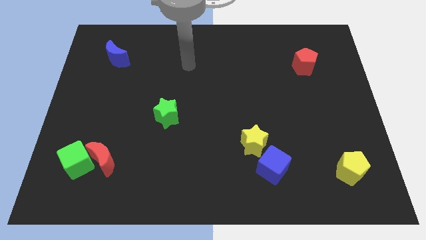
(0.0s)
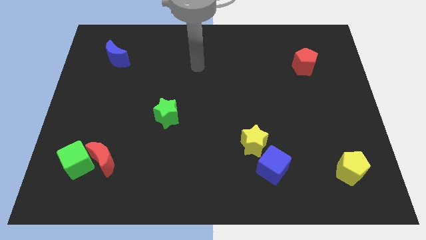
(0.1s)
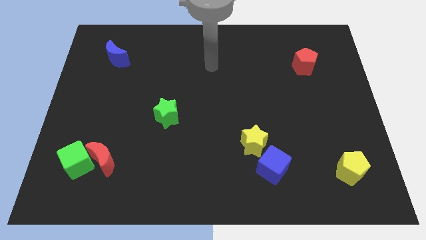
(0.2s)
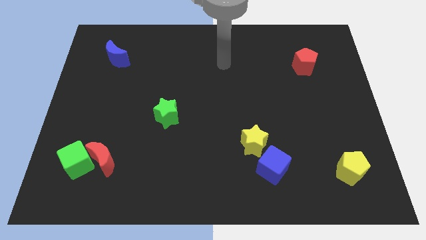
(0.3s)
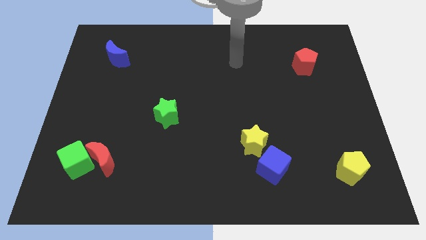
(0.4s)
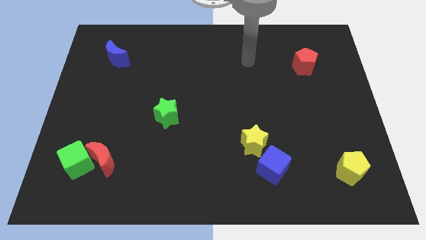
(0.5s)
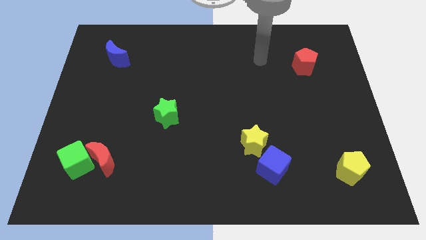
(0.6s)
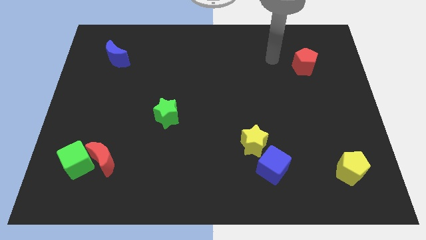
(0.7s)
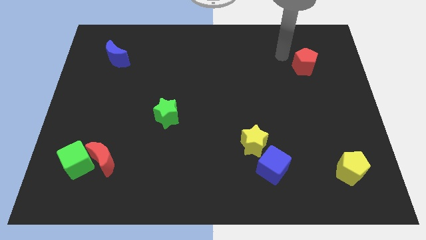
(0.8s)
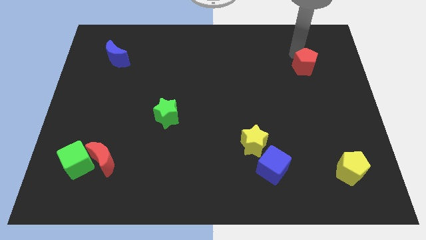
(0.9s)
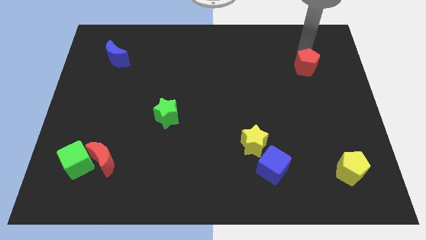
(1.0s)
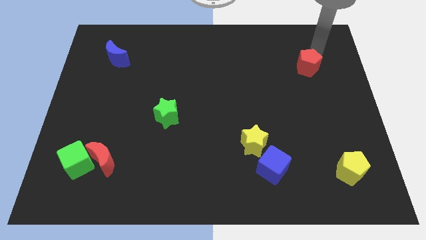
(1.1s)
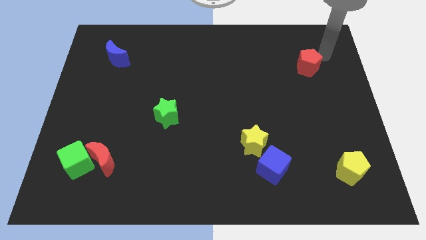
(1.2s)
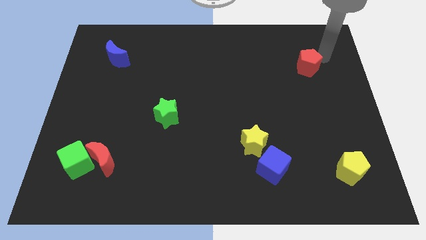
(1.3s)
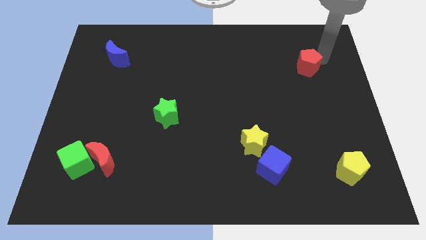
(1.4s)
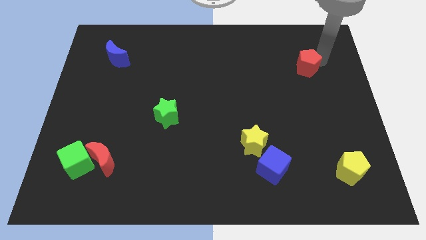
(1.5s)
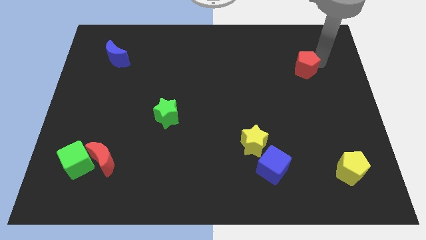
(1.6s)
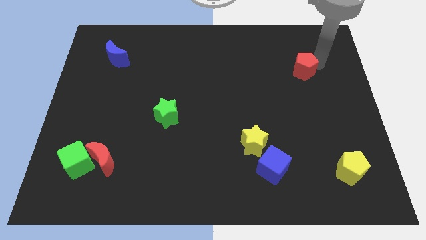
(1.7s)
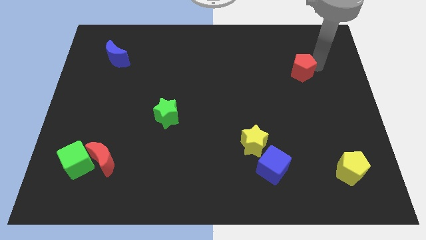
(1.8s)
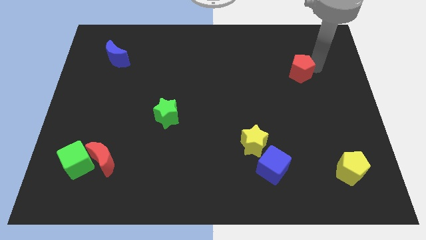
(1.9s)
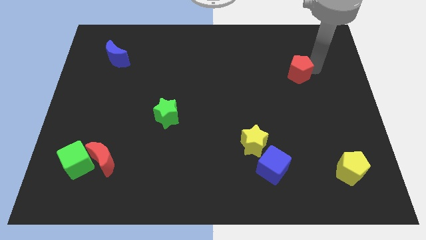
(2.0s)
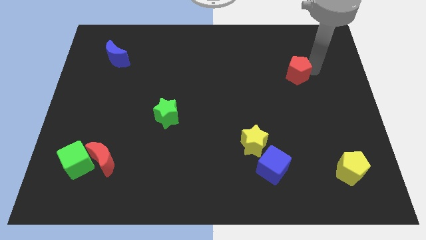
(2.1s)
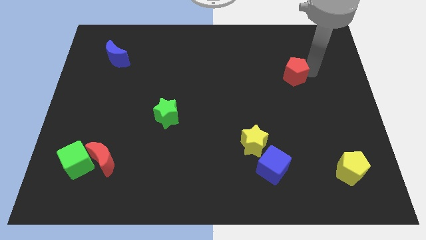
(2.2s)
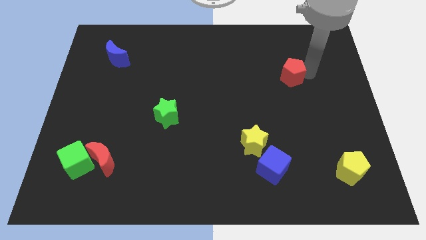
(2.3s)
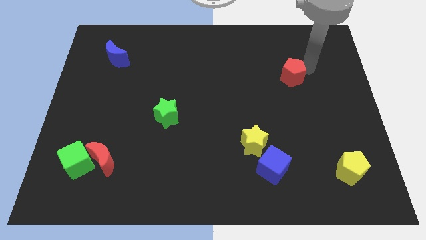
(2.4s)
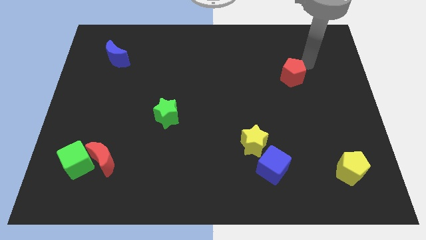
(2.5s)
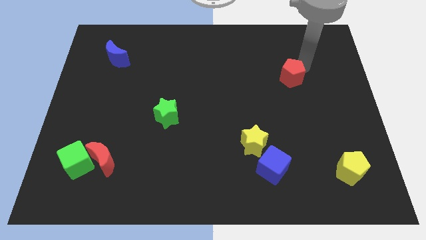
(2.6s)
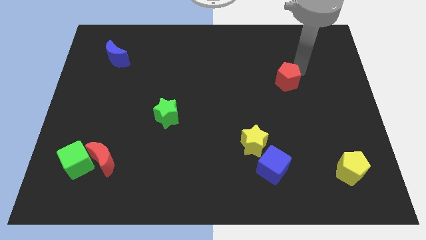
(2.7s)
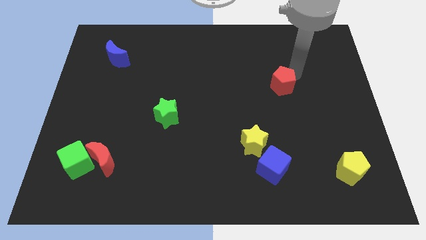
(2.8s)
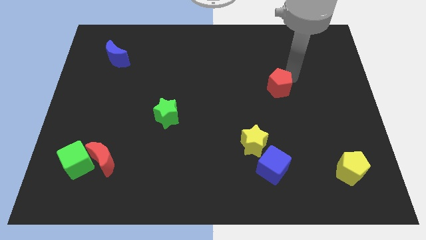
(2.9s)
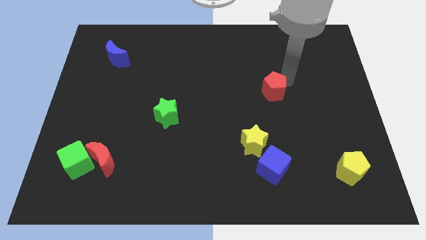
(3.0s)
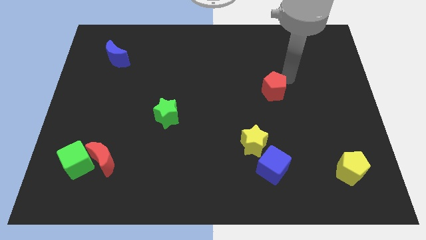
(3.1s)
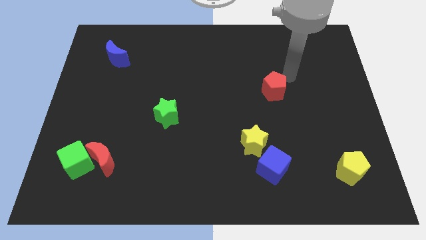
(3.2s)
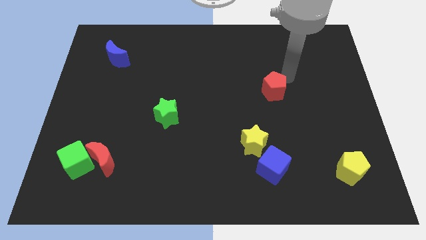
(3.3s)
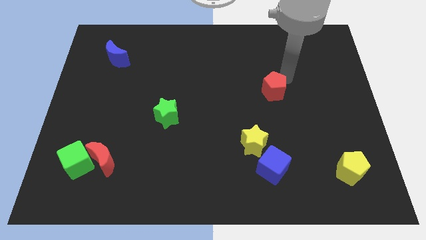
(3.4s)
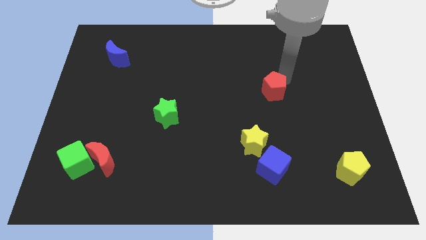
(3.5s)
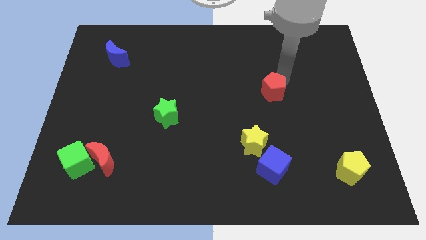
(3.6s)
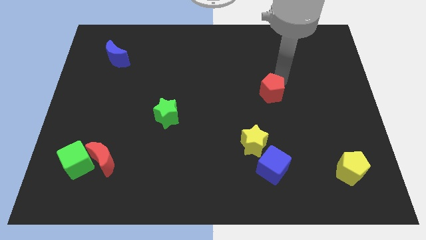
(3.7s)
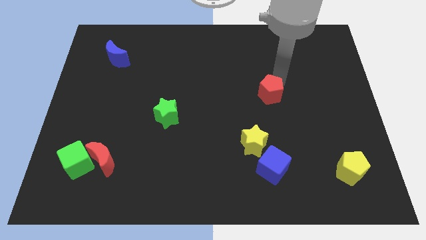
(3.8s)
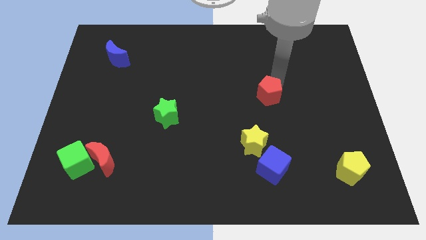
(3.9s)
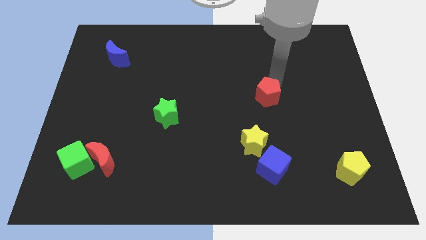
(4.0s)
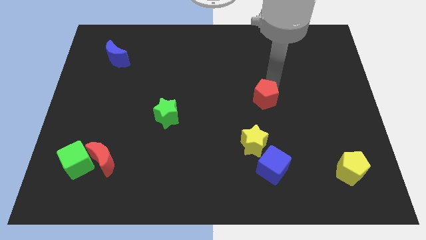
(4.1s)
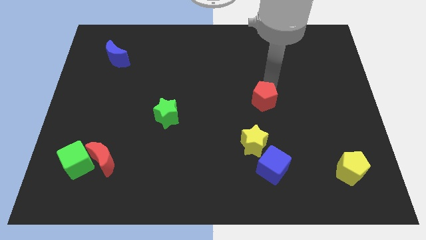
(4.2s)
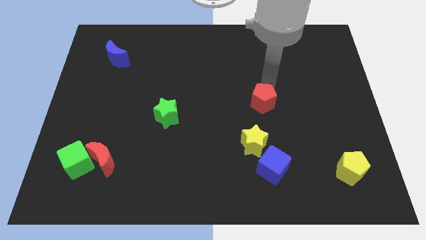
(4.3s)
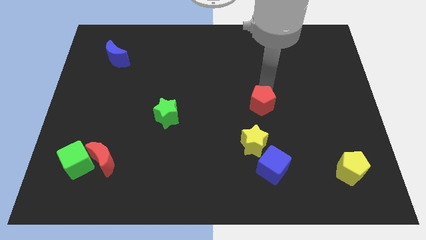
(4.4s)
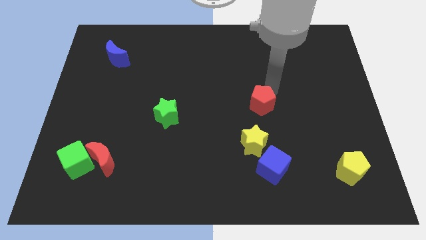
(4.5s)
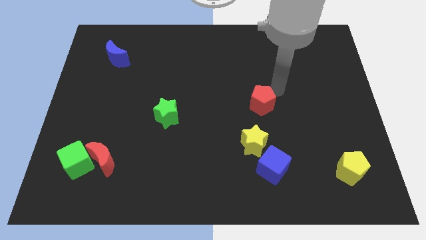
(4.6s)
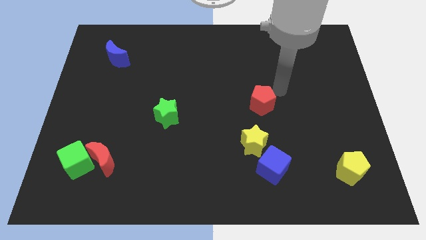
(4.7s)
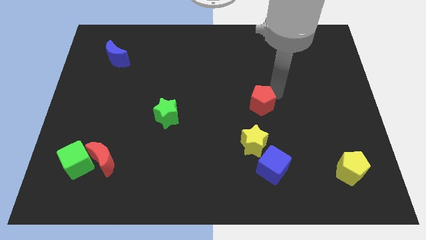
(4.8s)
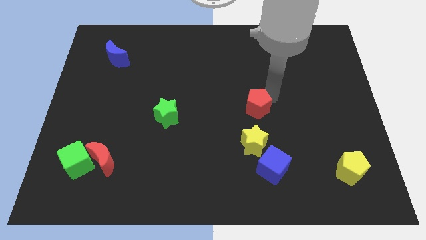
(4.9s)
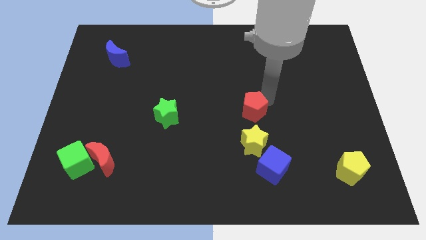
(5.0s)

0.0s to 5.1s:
move the red pentagon diagonally downwards and left

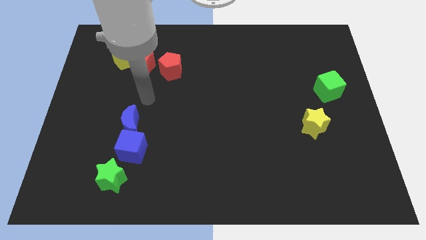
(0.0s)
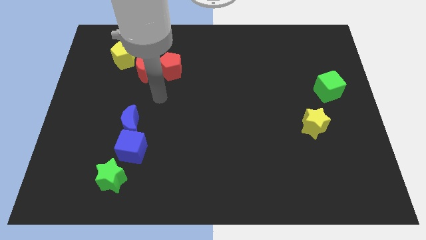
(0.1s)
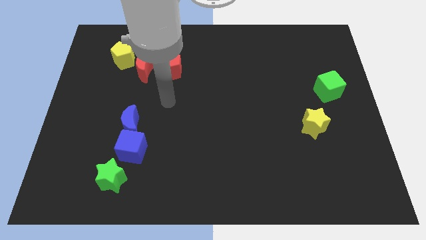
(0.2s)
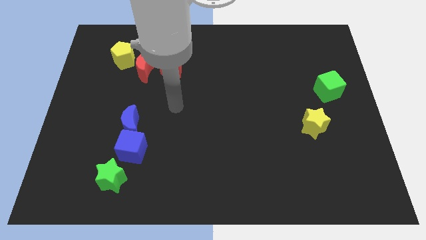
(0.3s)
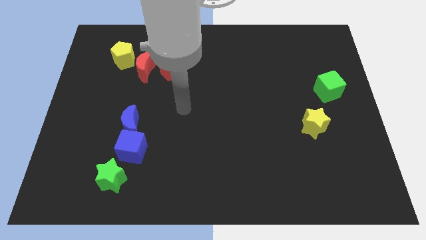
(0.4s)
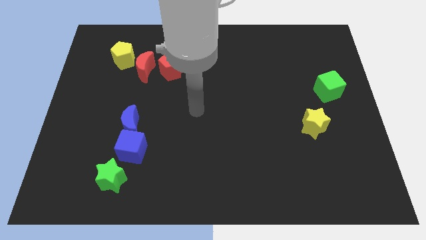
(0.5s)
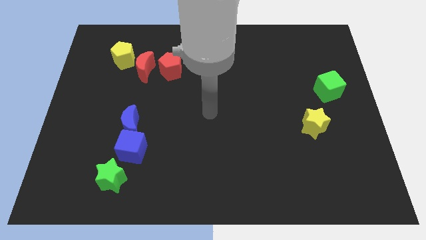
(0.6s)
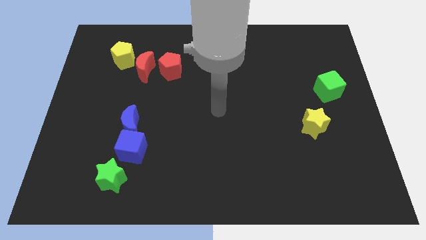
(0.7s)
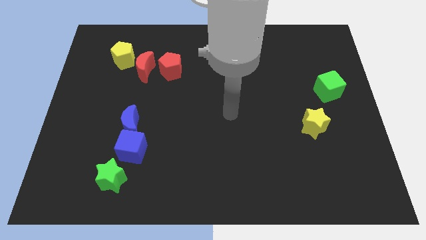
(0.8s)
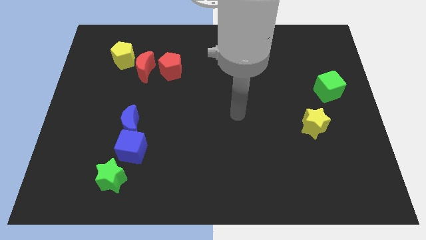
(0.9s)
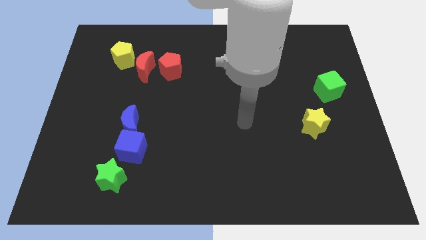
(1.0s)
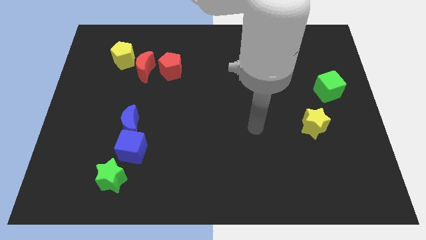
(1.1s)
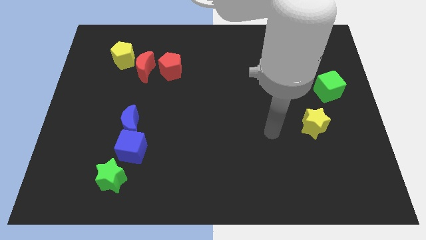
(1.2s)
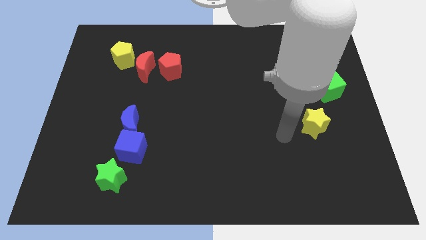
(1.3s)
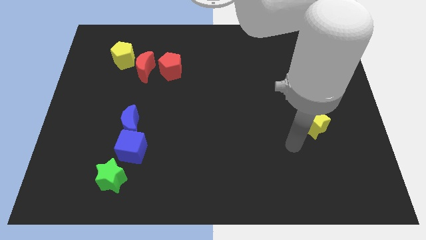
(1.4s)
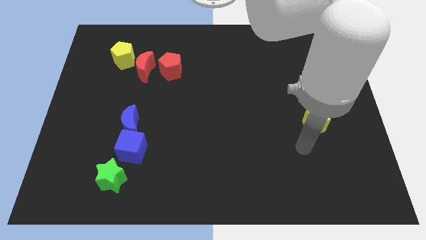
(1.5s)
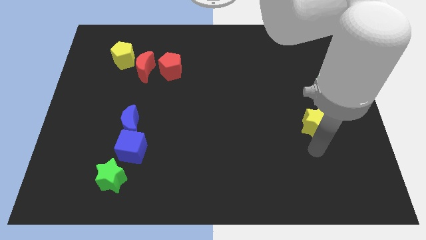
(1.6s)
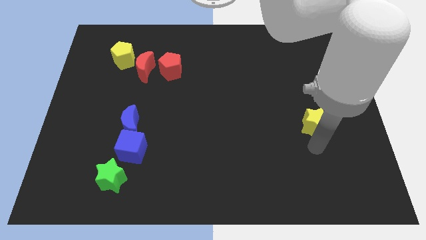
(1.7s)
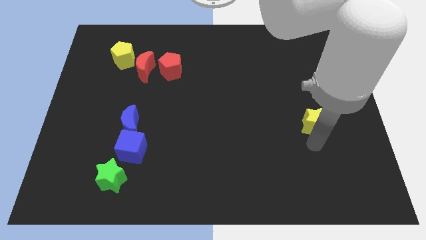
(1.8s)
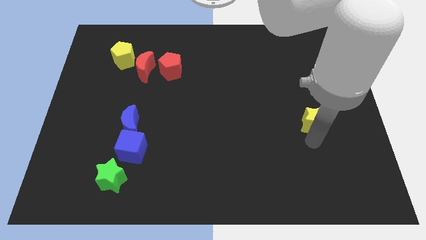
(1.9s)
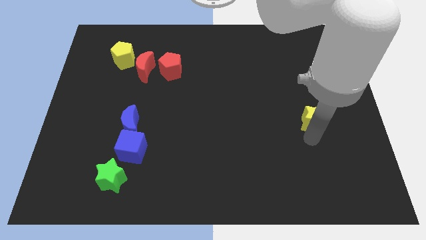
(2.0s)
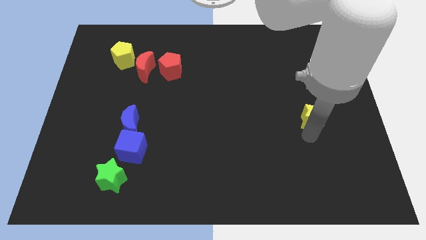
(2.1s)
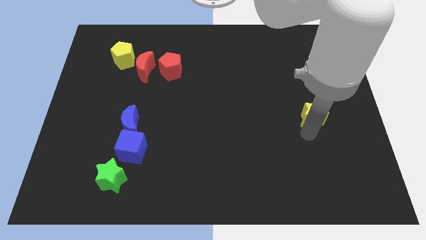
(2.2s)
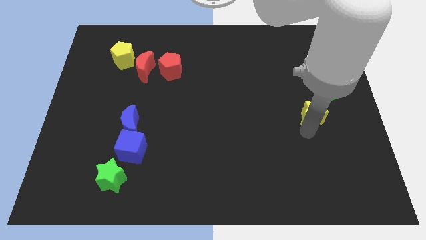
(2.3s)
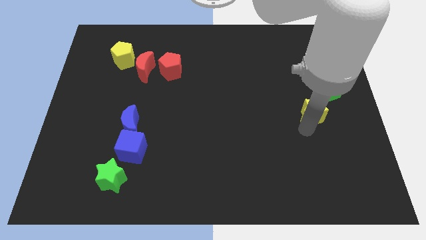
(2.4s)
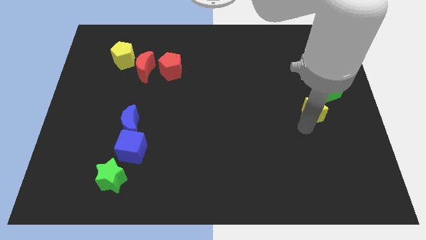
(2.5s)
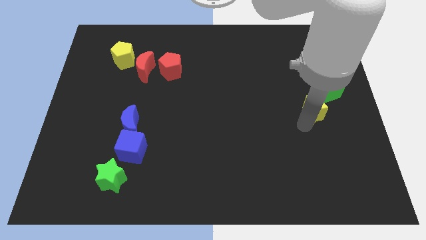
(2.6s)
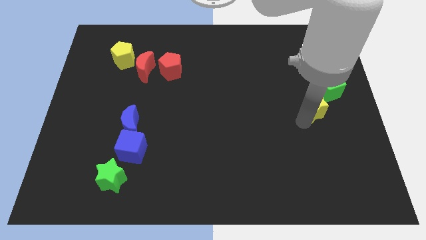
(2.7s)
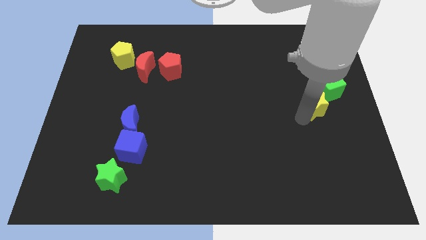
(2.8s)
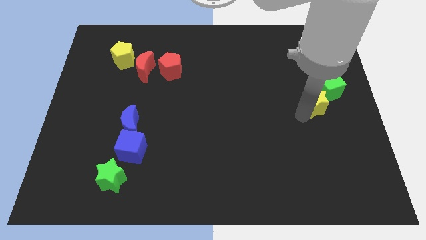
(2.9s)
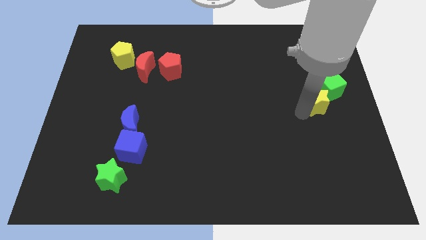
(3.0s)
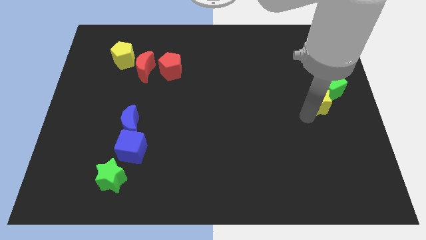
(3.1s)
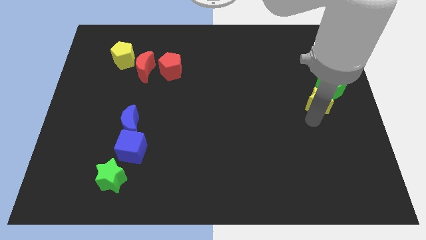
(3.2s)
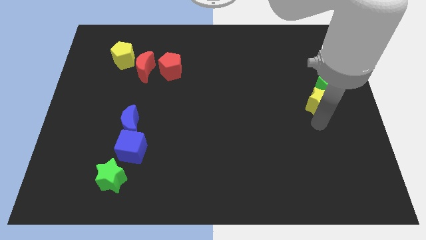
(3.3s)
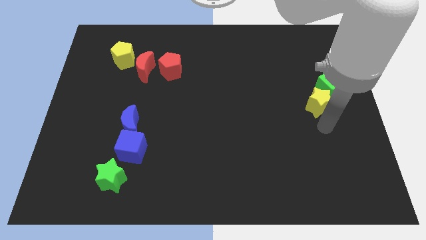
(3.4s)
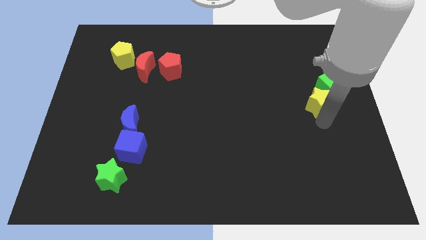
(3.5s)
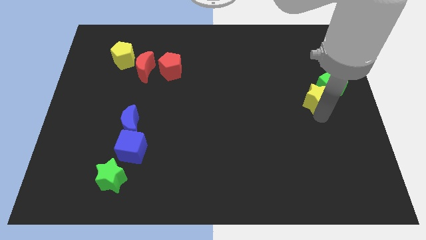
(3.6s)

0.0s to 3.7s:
slightly slide the yellow star up
